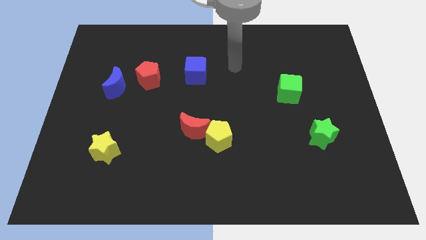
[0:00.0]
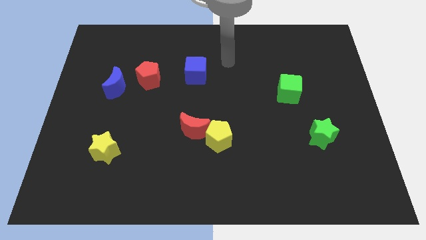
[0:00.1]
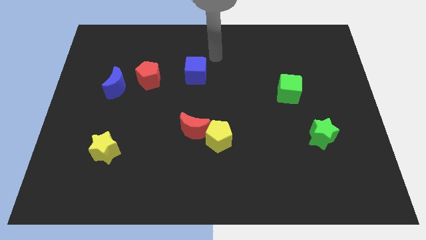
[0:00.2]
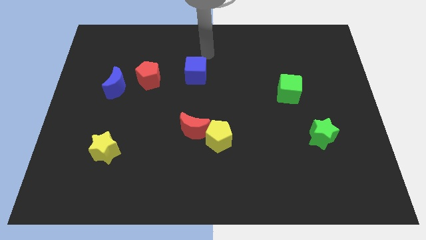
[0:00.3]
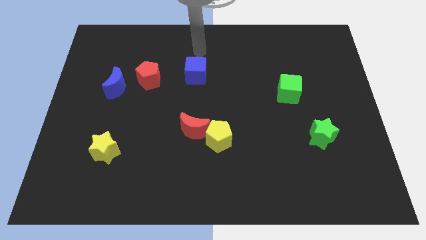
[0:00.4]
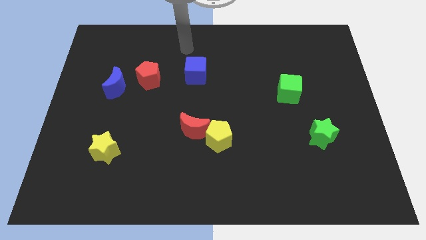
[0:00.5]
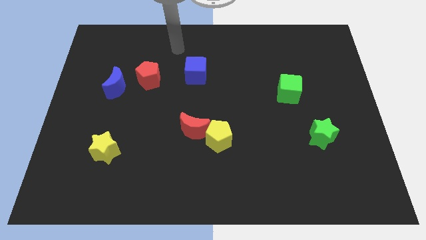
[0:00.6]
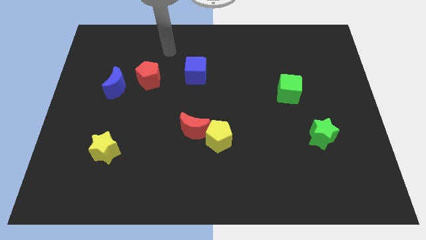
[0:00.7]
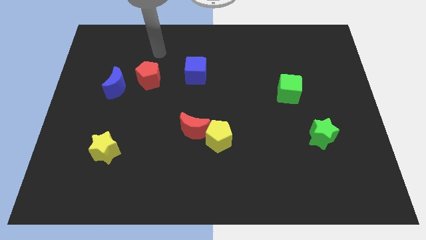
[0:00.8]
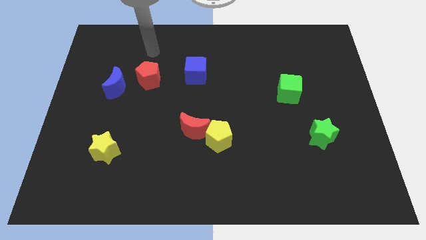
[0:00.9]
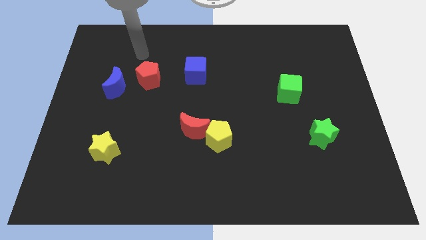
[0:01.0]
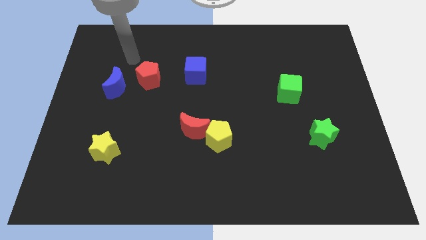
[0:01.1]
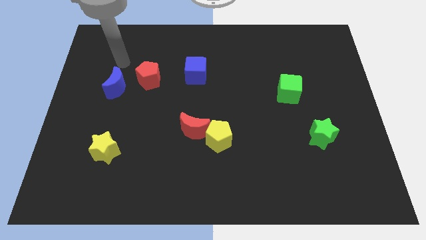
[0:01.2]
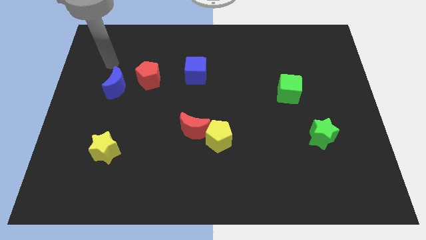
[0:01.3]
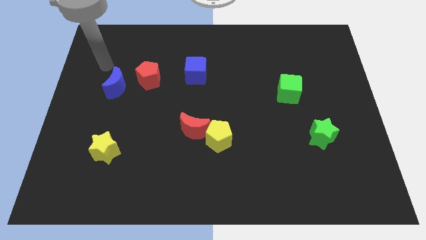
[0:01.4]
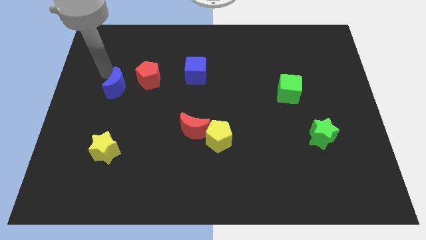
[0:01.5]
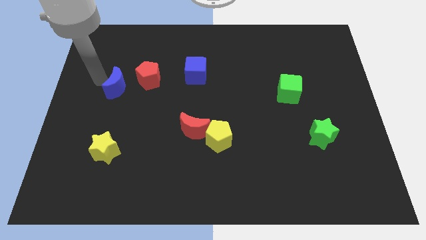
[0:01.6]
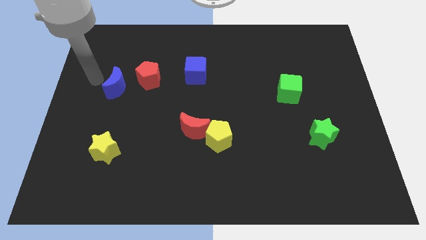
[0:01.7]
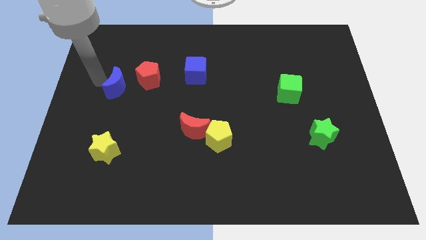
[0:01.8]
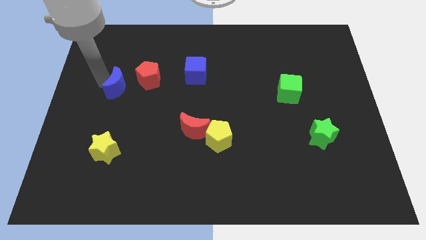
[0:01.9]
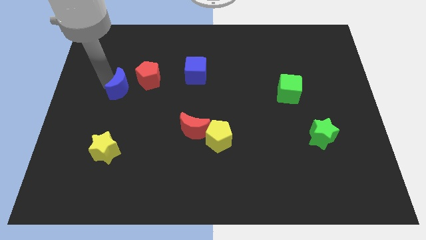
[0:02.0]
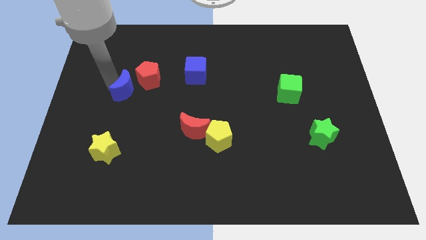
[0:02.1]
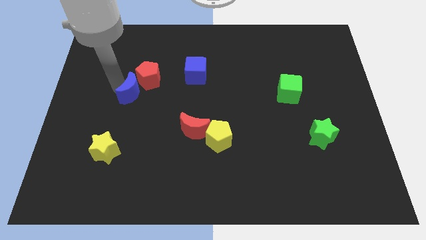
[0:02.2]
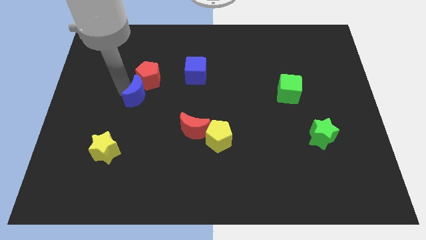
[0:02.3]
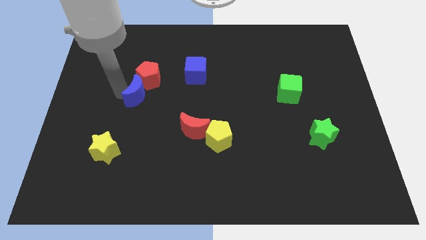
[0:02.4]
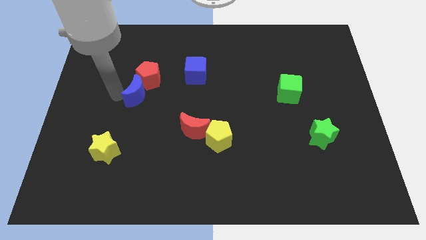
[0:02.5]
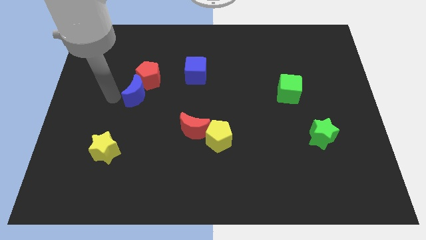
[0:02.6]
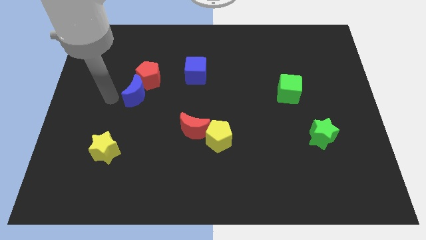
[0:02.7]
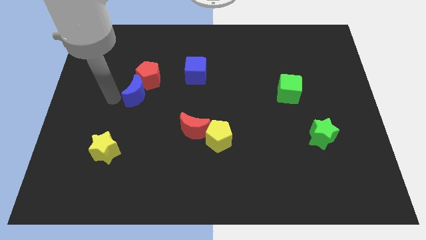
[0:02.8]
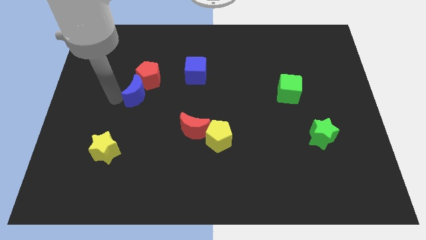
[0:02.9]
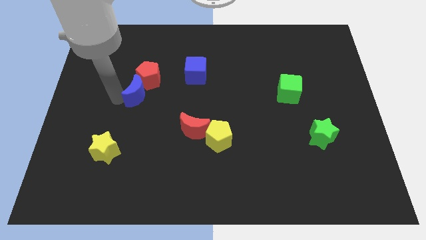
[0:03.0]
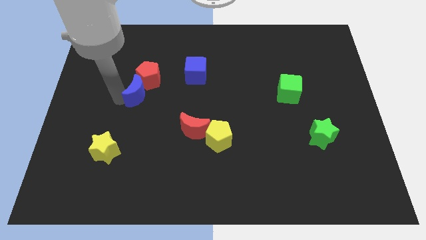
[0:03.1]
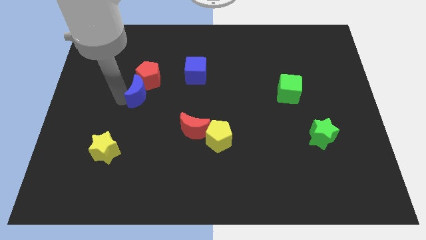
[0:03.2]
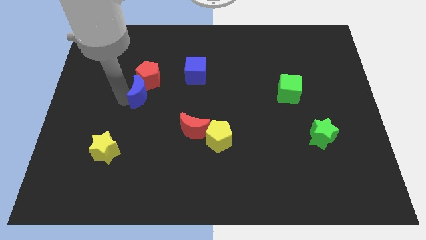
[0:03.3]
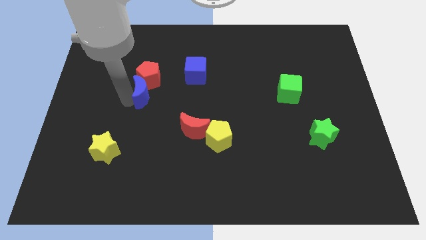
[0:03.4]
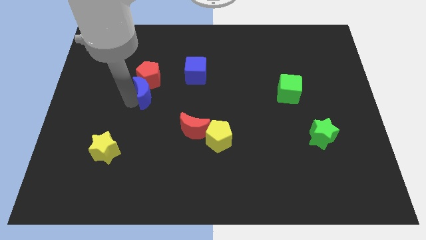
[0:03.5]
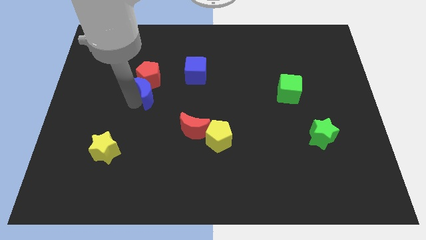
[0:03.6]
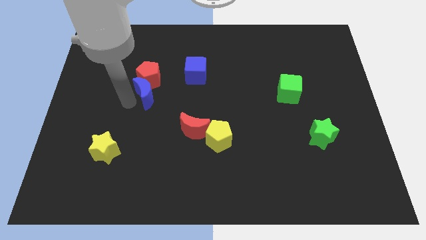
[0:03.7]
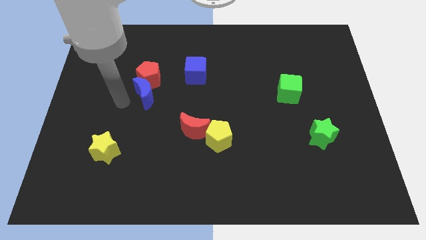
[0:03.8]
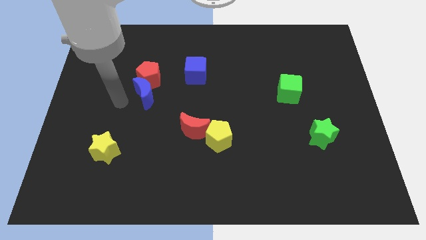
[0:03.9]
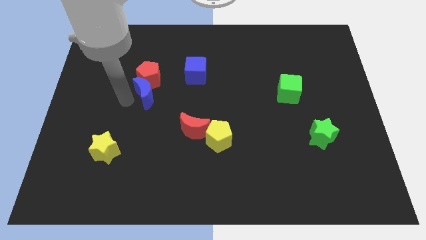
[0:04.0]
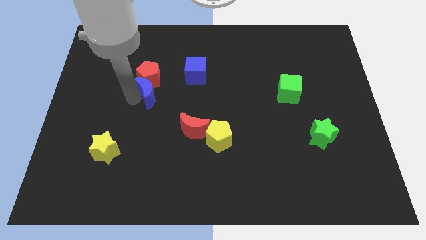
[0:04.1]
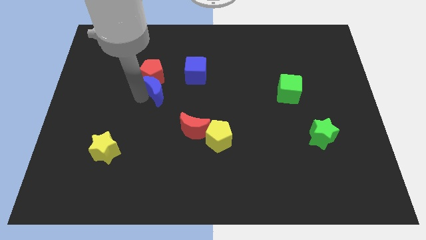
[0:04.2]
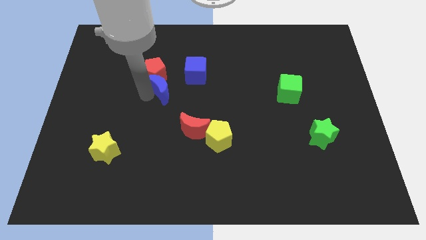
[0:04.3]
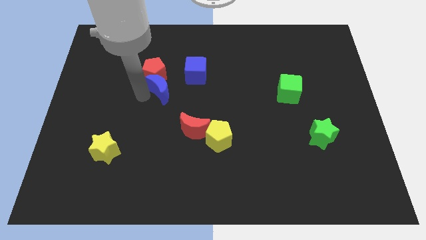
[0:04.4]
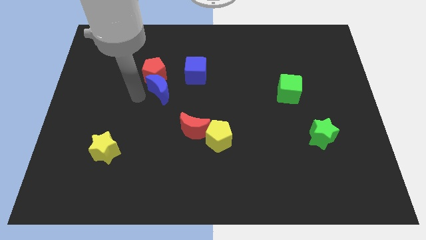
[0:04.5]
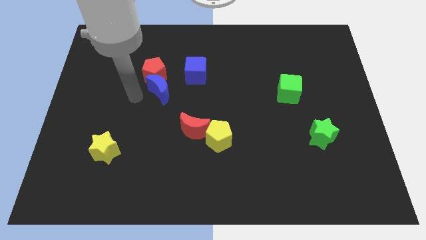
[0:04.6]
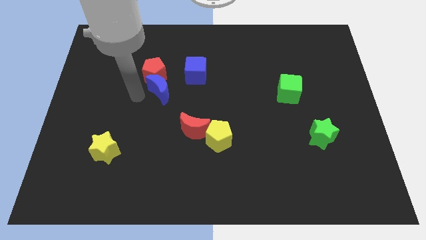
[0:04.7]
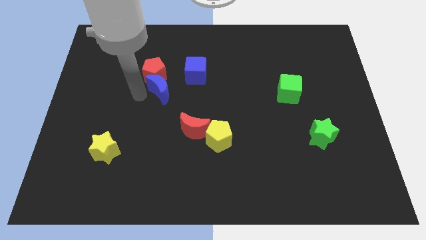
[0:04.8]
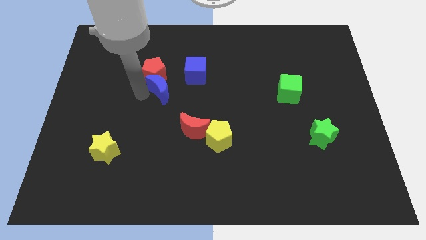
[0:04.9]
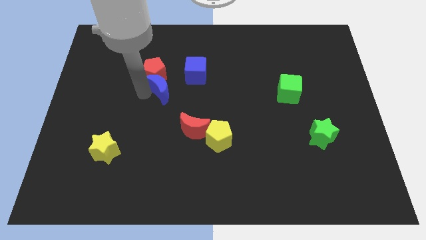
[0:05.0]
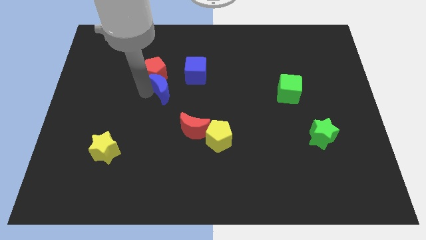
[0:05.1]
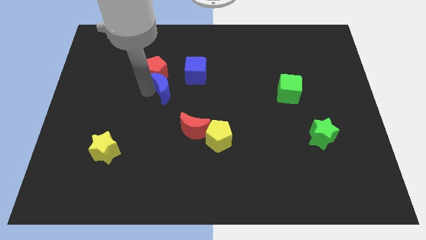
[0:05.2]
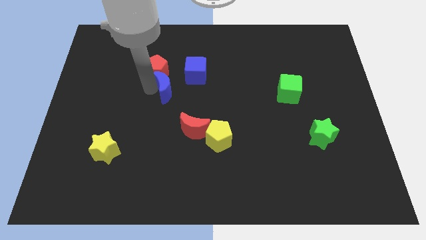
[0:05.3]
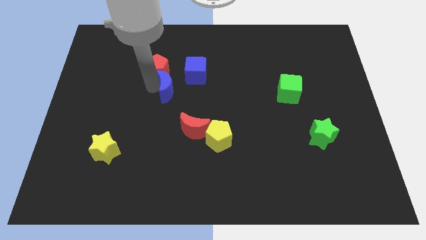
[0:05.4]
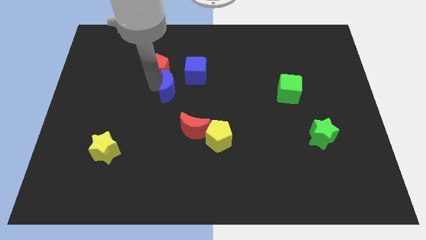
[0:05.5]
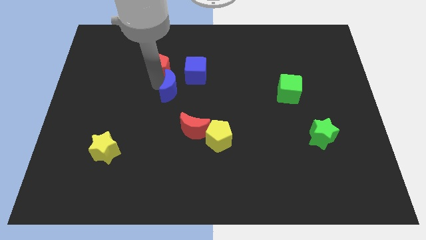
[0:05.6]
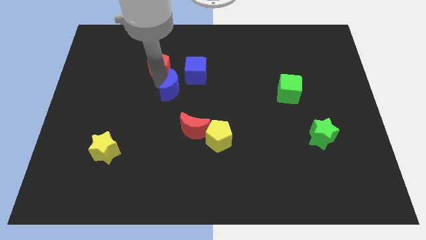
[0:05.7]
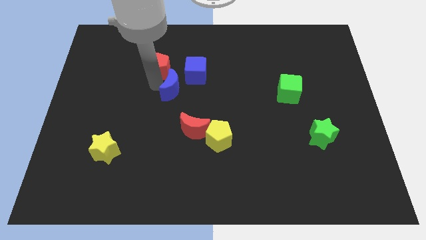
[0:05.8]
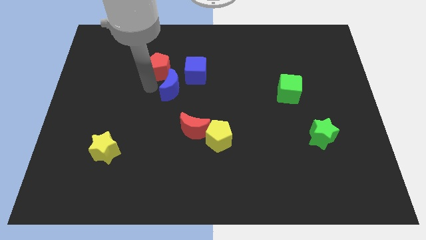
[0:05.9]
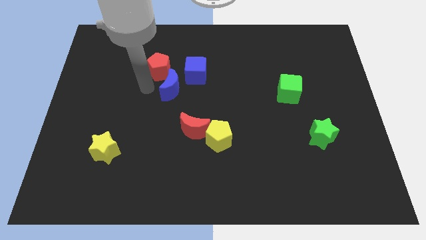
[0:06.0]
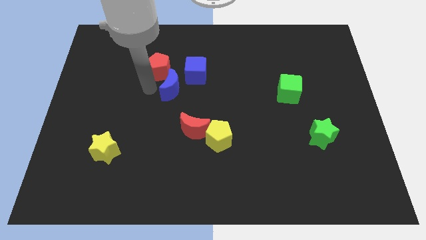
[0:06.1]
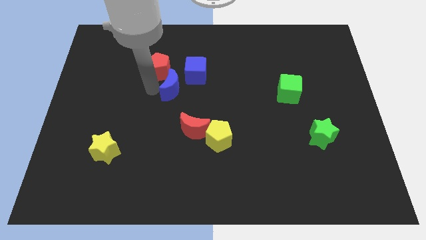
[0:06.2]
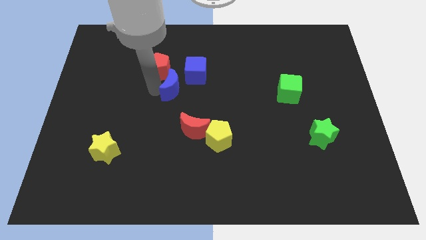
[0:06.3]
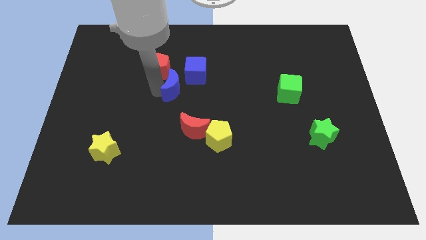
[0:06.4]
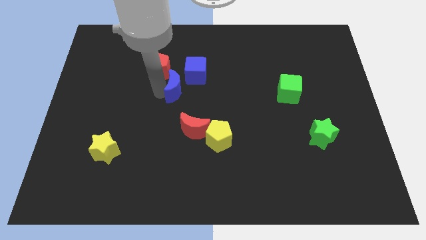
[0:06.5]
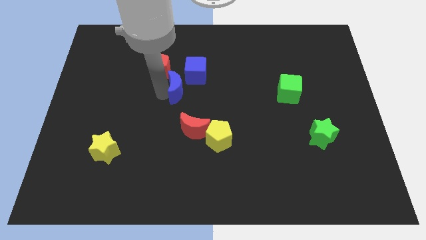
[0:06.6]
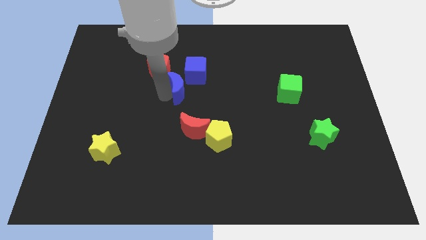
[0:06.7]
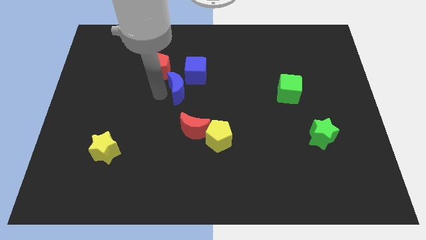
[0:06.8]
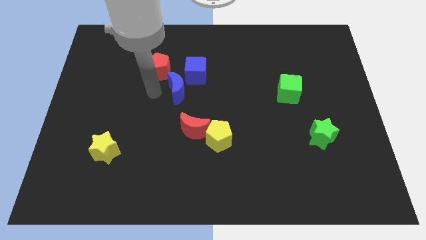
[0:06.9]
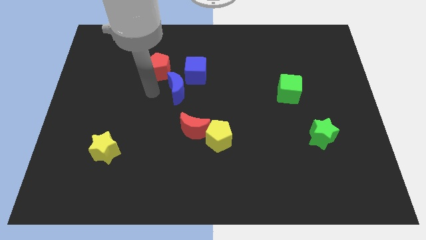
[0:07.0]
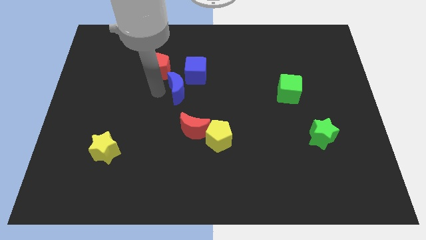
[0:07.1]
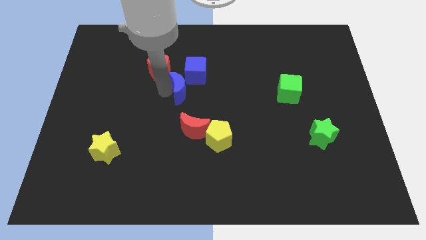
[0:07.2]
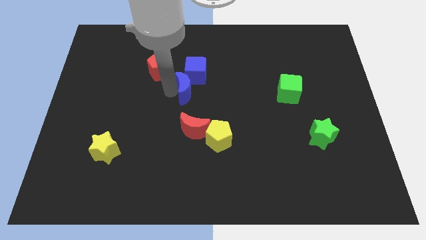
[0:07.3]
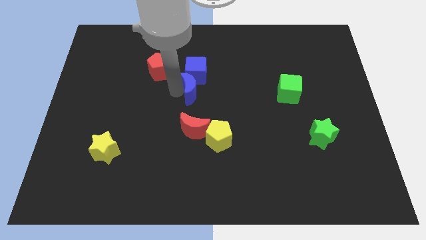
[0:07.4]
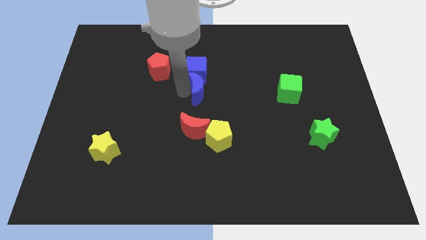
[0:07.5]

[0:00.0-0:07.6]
push the blue moon to the right

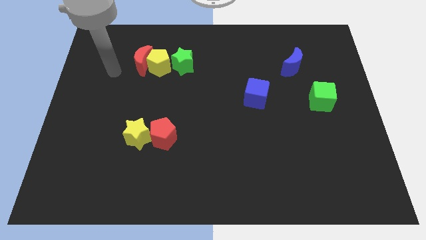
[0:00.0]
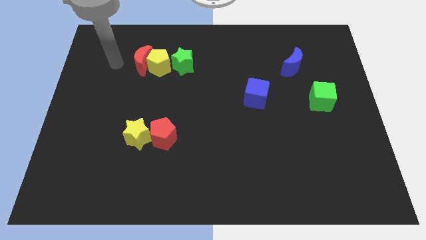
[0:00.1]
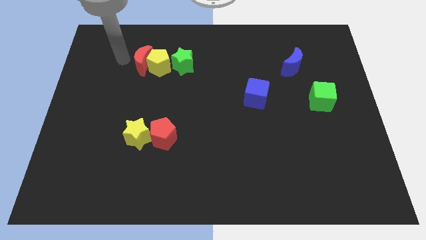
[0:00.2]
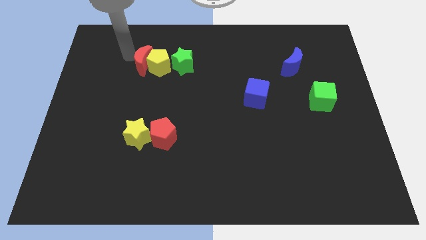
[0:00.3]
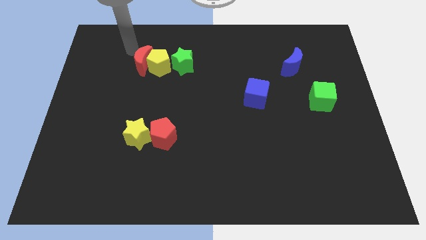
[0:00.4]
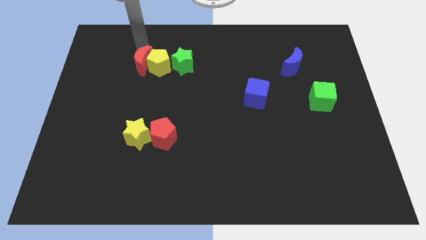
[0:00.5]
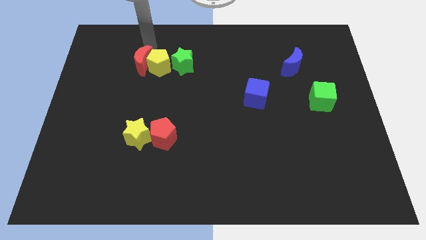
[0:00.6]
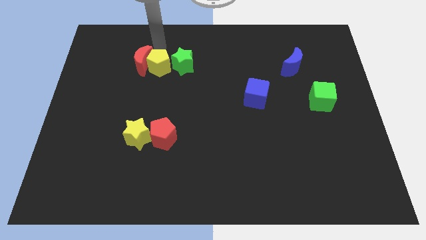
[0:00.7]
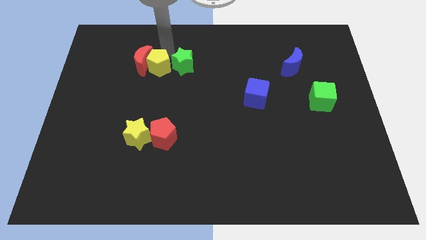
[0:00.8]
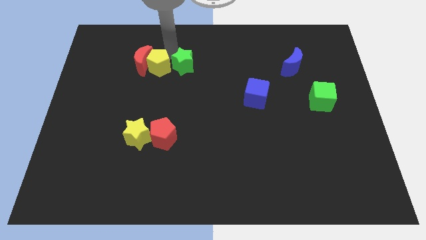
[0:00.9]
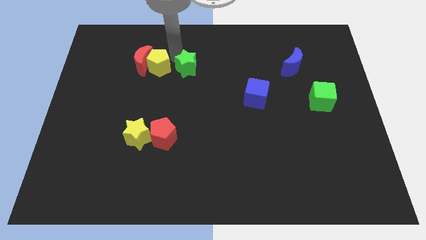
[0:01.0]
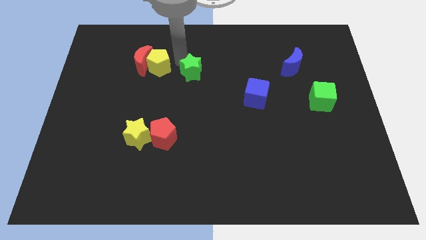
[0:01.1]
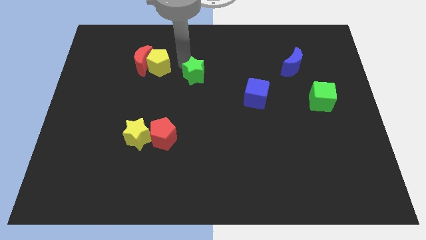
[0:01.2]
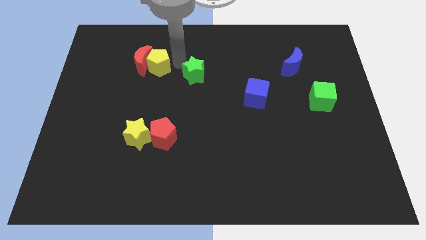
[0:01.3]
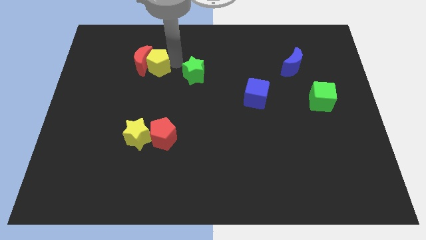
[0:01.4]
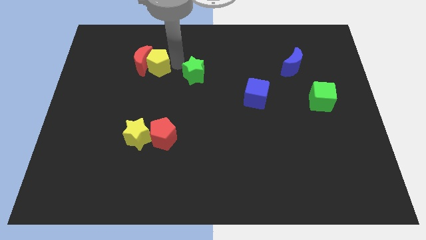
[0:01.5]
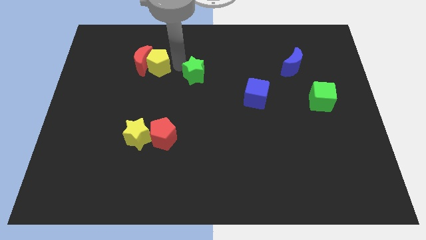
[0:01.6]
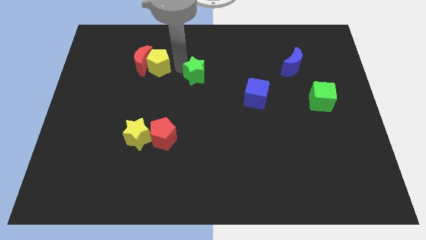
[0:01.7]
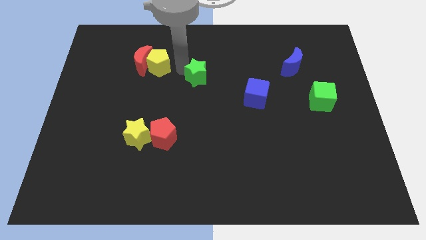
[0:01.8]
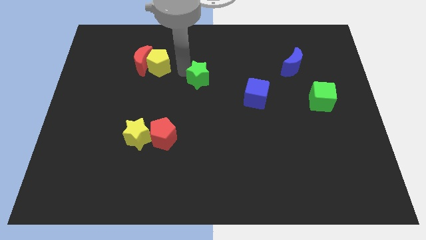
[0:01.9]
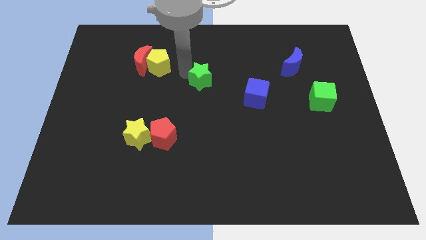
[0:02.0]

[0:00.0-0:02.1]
move the green star slightly down and to the right diagonally
